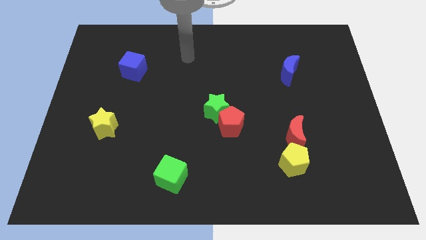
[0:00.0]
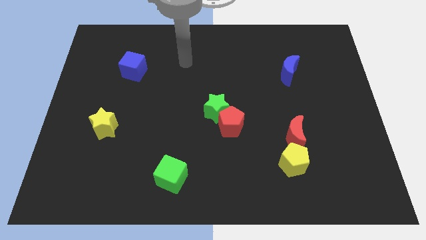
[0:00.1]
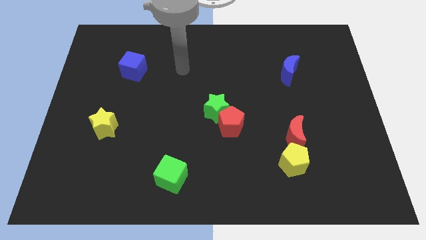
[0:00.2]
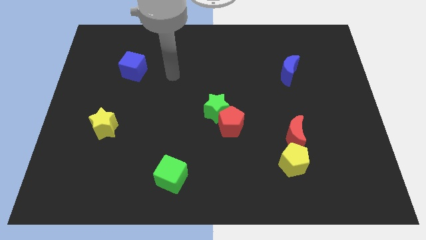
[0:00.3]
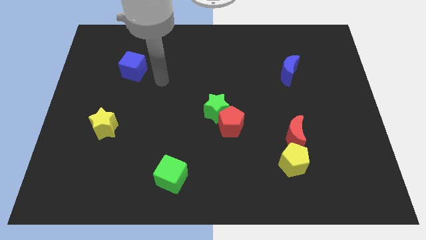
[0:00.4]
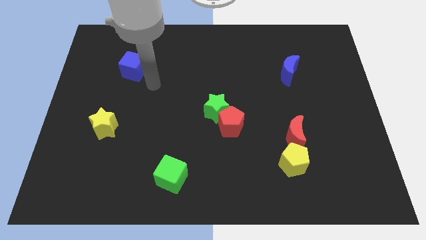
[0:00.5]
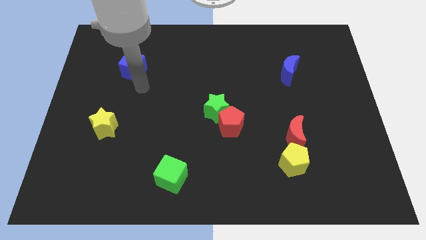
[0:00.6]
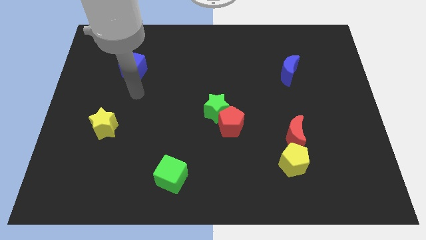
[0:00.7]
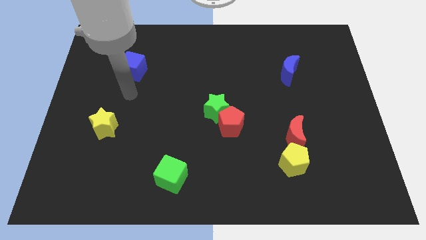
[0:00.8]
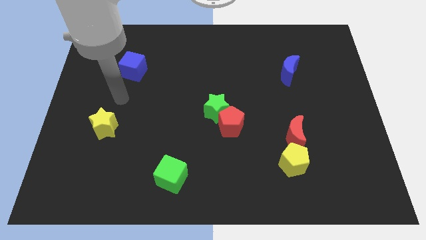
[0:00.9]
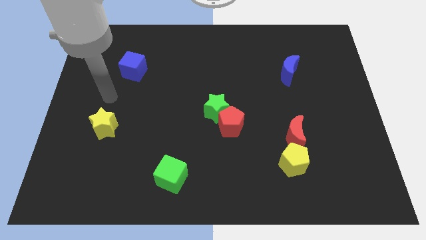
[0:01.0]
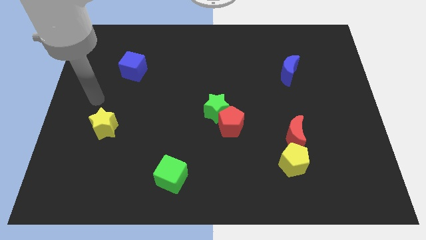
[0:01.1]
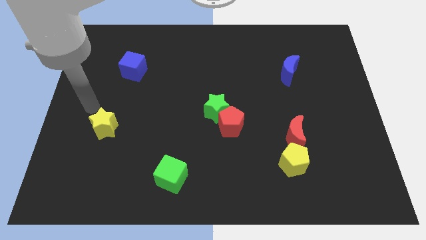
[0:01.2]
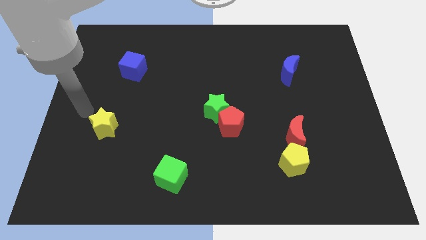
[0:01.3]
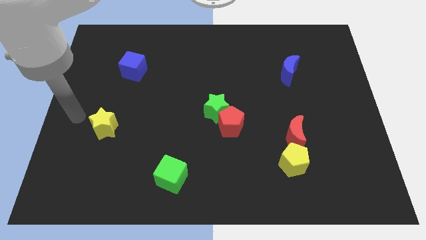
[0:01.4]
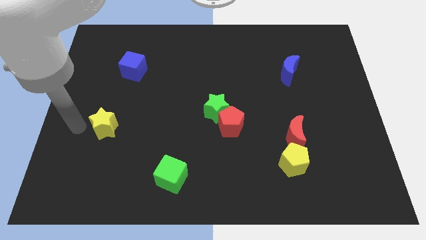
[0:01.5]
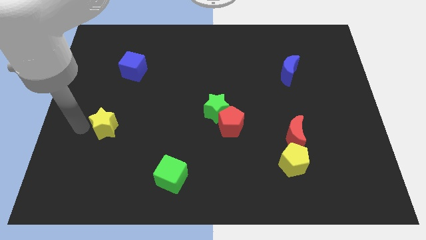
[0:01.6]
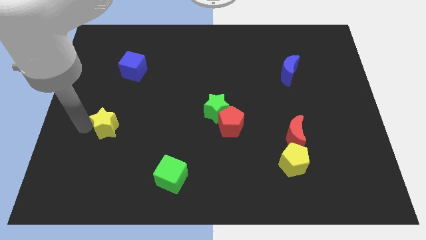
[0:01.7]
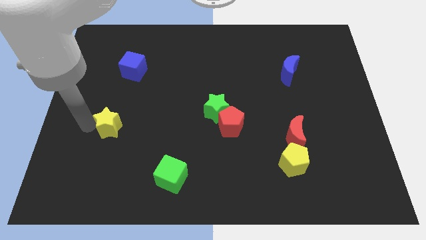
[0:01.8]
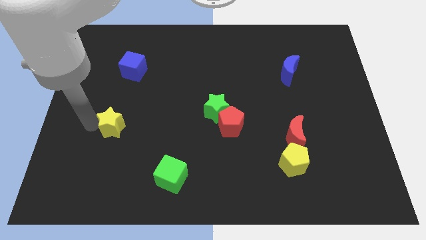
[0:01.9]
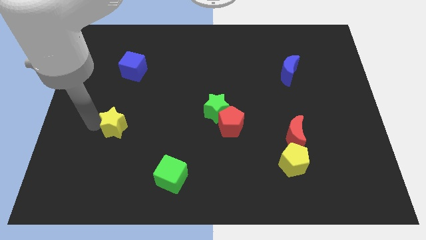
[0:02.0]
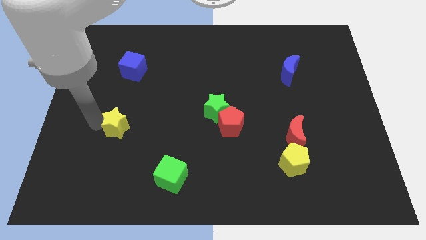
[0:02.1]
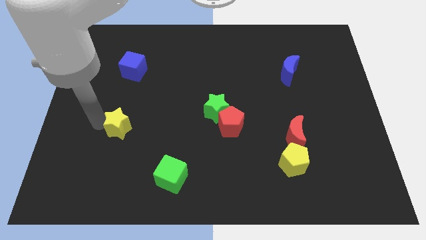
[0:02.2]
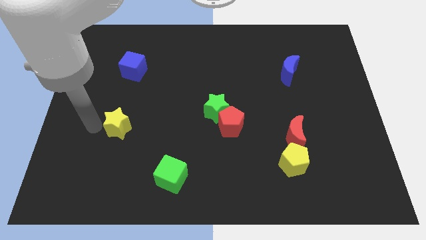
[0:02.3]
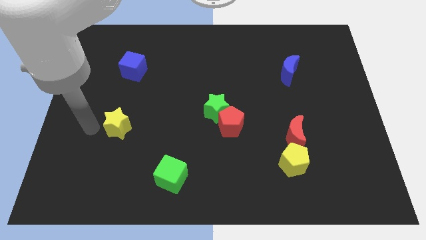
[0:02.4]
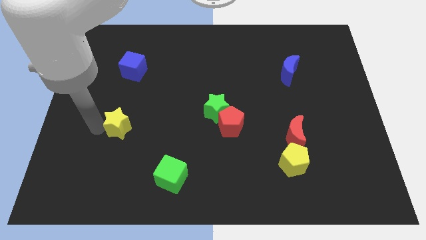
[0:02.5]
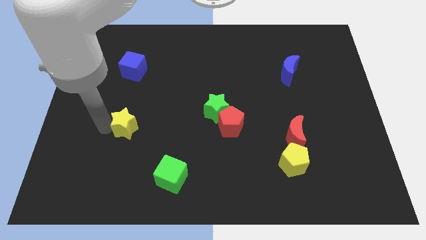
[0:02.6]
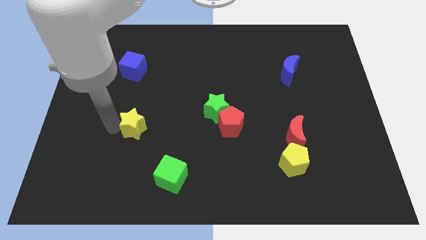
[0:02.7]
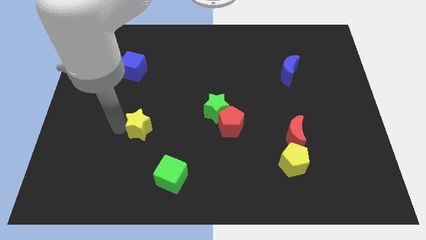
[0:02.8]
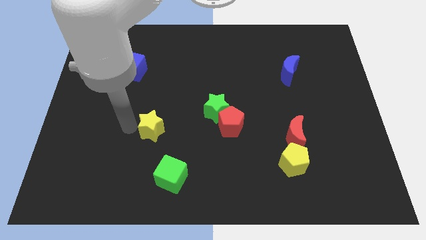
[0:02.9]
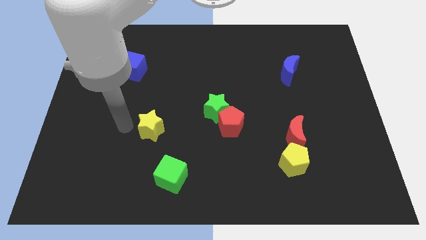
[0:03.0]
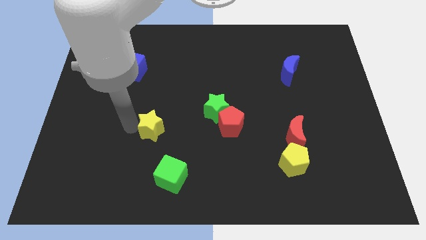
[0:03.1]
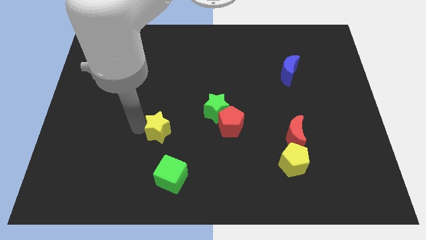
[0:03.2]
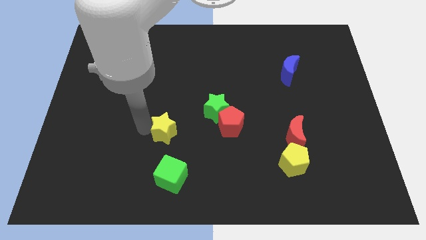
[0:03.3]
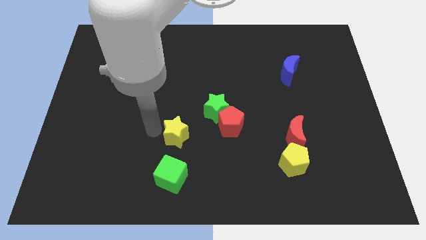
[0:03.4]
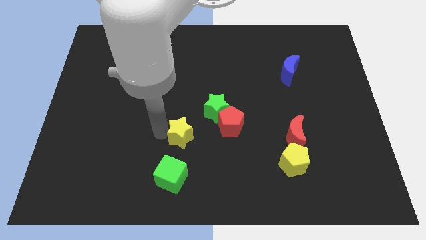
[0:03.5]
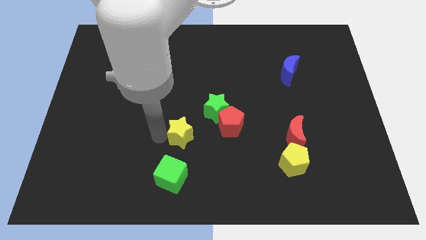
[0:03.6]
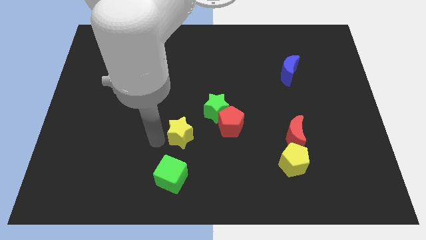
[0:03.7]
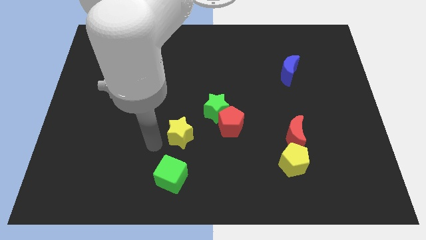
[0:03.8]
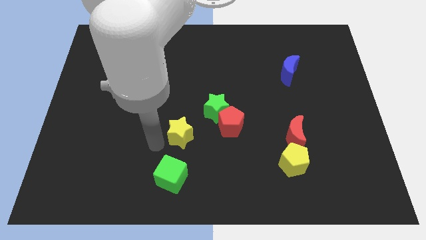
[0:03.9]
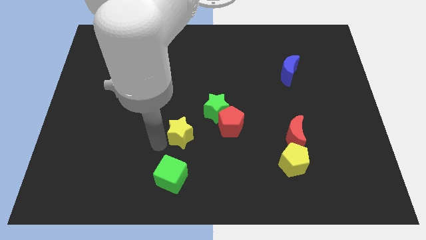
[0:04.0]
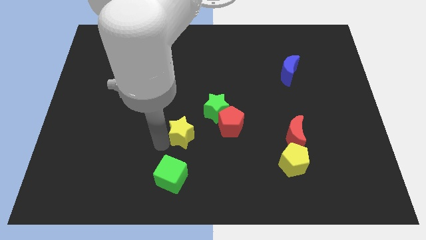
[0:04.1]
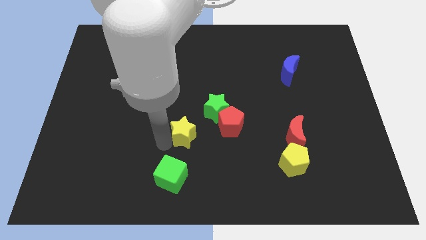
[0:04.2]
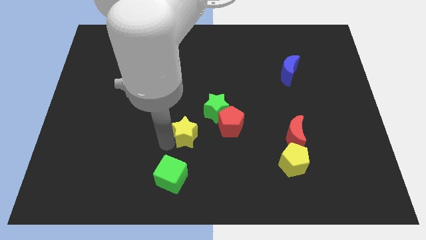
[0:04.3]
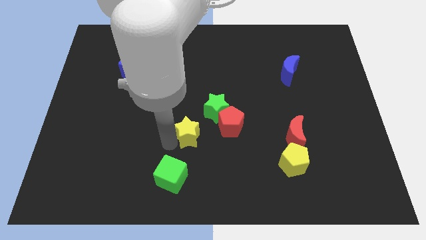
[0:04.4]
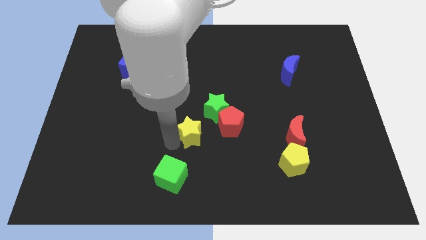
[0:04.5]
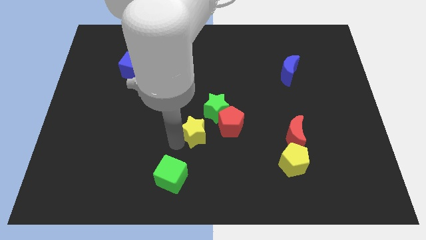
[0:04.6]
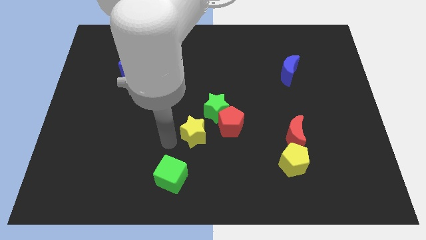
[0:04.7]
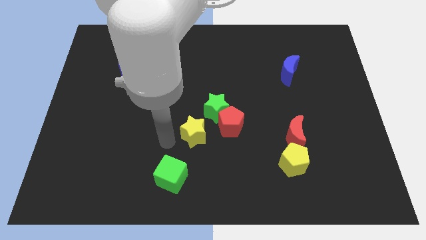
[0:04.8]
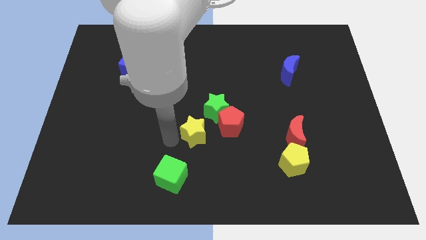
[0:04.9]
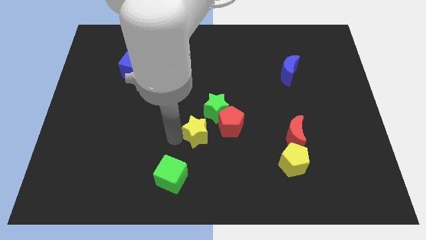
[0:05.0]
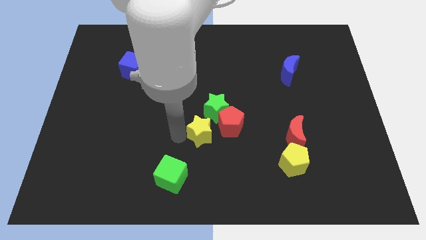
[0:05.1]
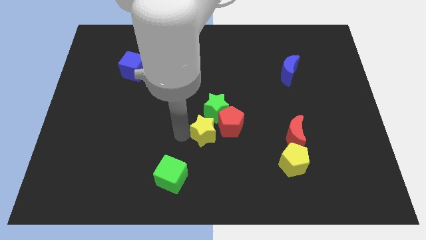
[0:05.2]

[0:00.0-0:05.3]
move the yellow star next to the red pentagon

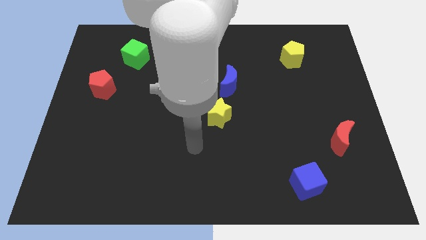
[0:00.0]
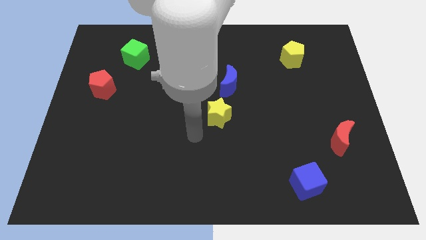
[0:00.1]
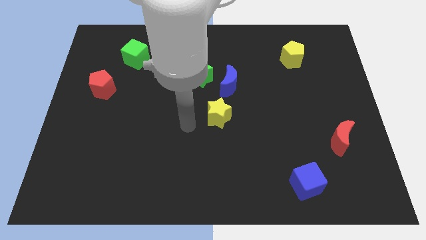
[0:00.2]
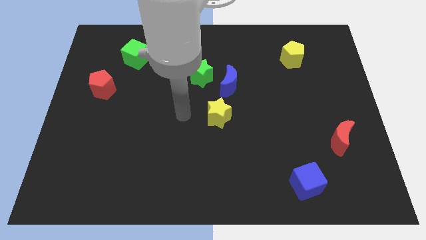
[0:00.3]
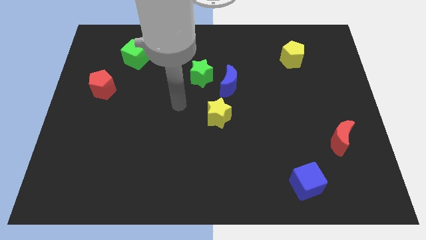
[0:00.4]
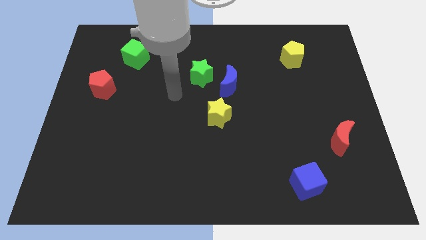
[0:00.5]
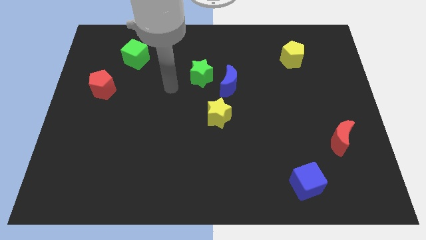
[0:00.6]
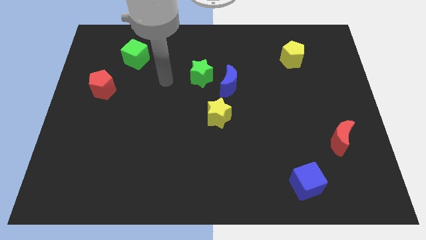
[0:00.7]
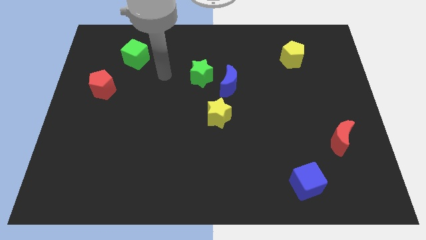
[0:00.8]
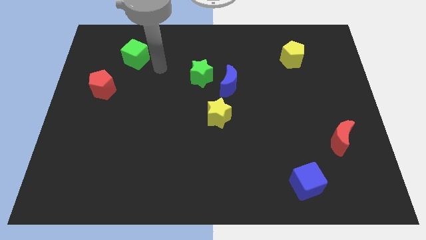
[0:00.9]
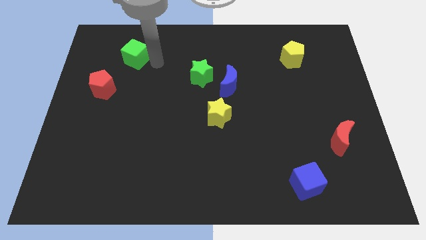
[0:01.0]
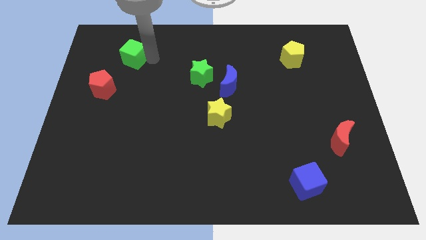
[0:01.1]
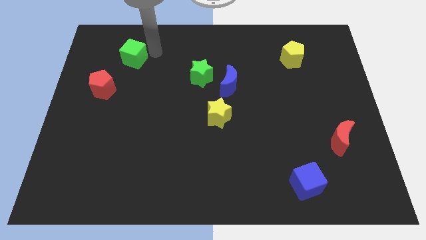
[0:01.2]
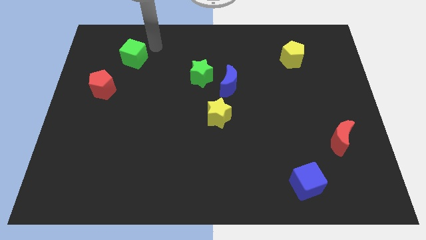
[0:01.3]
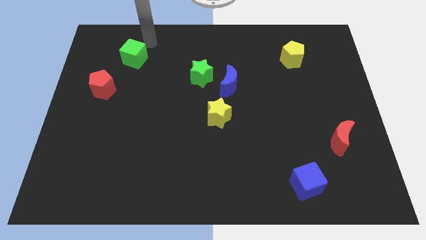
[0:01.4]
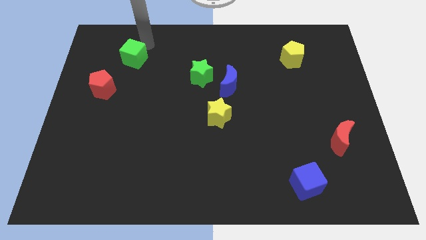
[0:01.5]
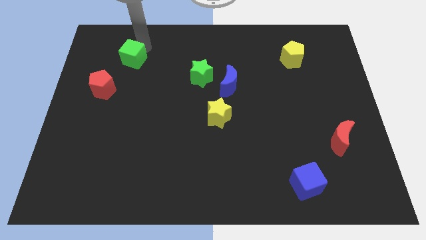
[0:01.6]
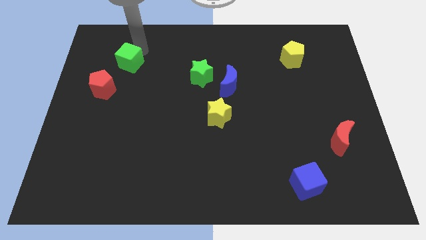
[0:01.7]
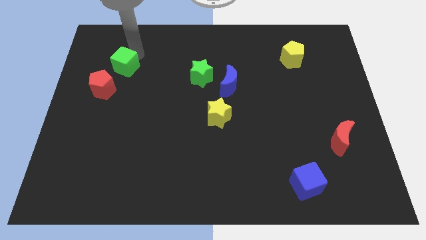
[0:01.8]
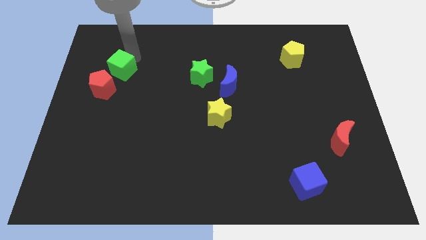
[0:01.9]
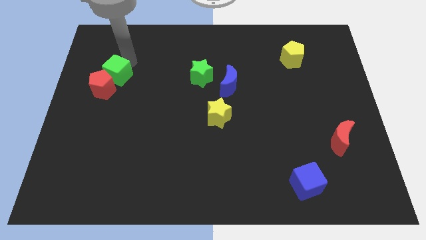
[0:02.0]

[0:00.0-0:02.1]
put the green cube close to the red pentagon
